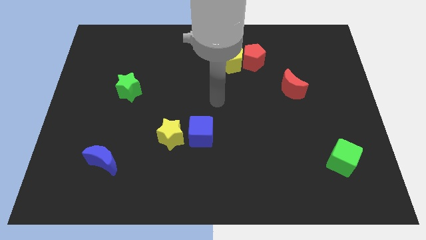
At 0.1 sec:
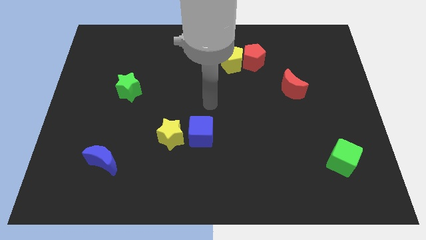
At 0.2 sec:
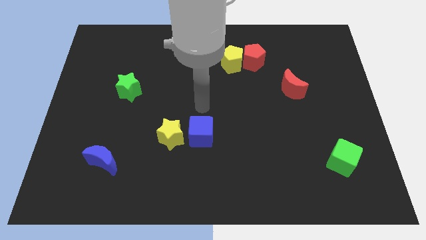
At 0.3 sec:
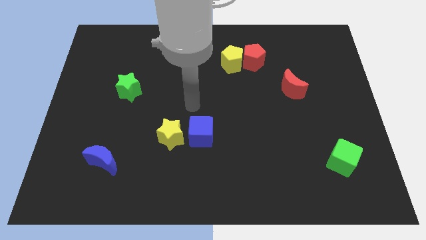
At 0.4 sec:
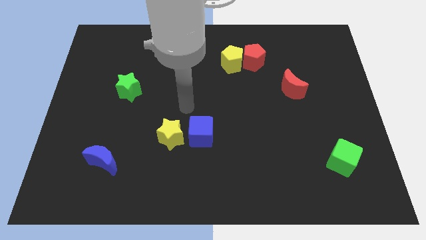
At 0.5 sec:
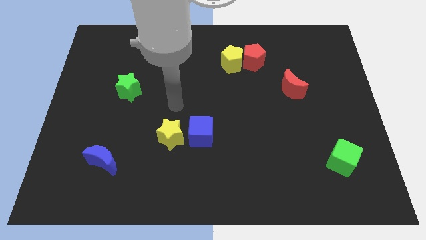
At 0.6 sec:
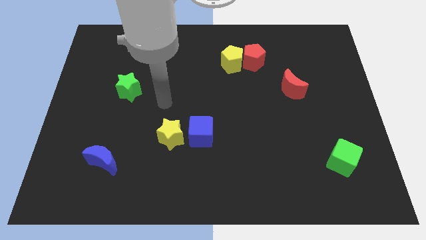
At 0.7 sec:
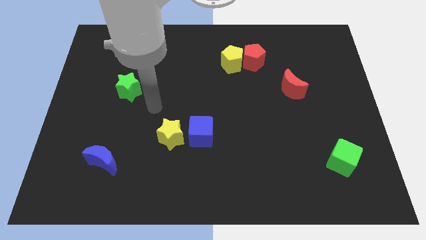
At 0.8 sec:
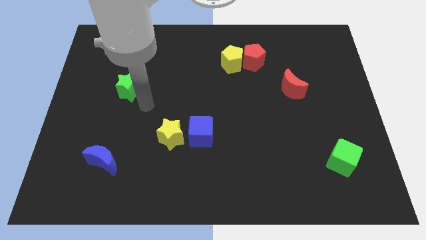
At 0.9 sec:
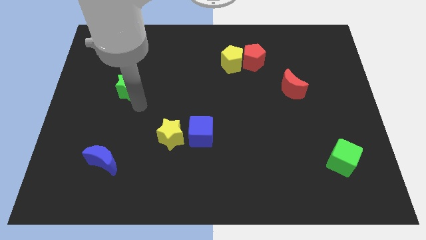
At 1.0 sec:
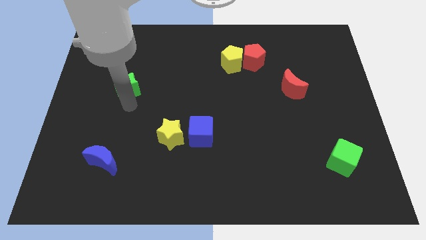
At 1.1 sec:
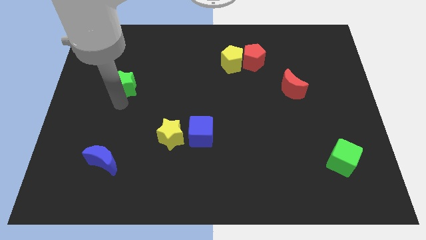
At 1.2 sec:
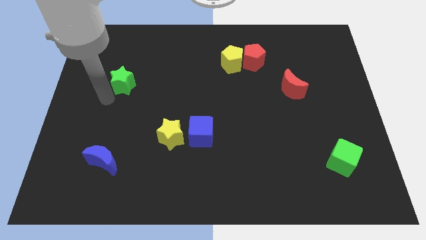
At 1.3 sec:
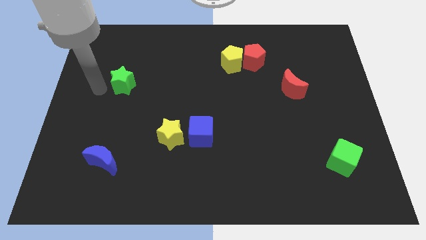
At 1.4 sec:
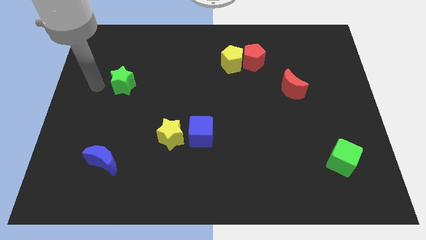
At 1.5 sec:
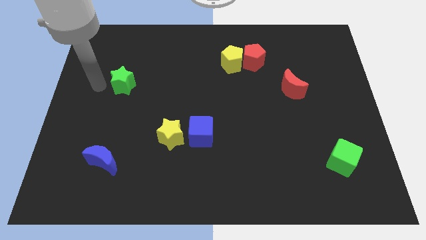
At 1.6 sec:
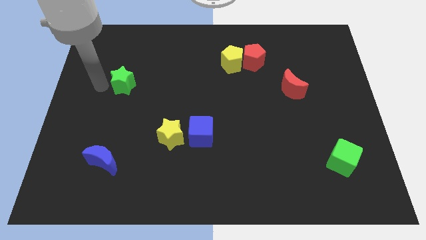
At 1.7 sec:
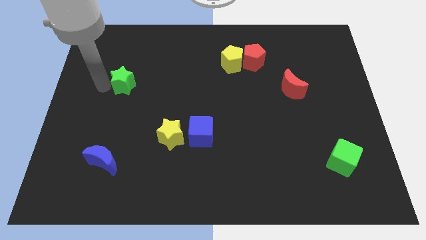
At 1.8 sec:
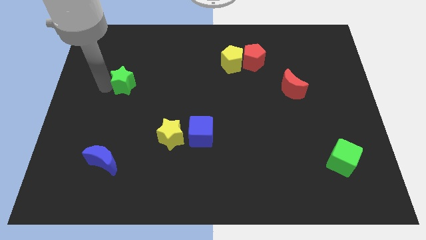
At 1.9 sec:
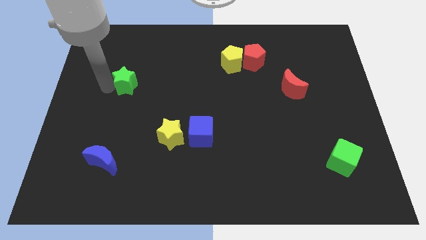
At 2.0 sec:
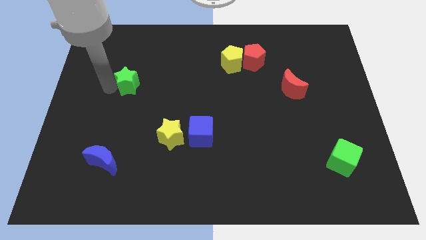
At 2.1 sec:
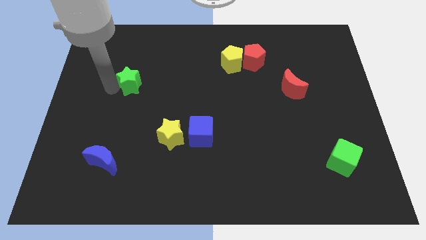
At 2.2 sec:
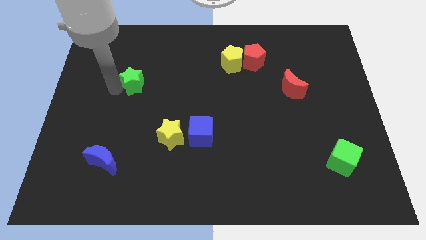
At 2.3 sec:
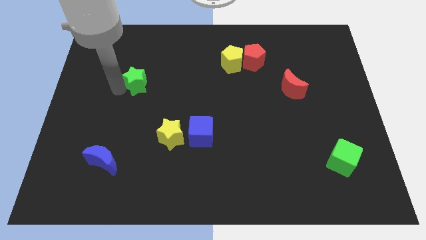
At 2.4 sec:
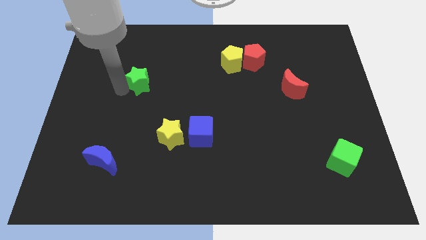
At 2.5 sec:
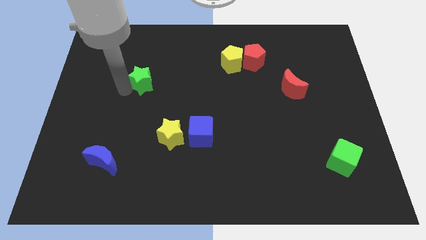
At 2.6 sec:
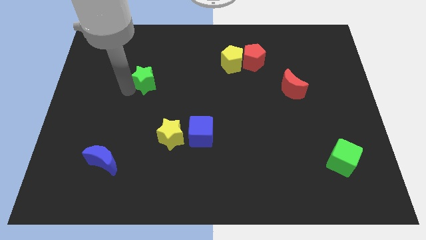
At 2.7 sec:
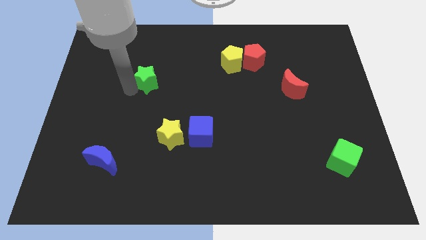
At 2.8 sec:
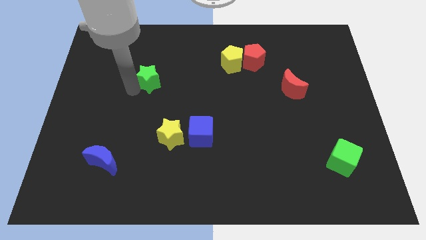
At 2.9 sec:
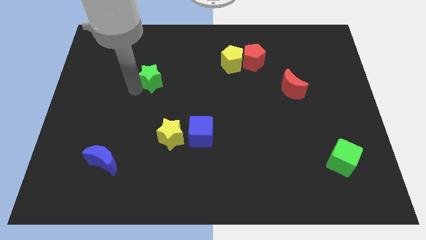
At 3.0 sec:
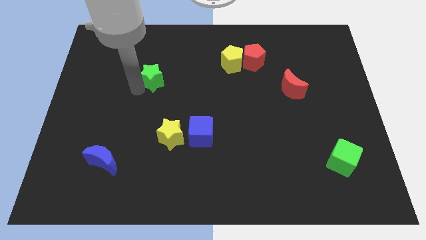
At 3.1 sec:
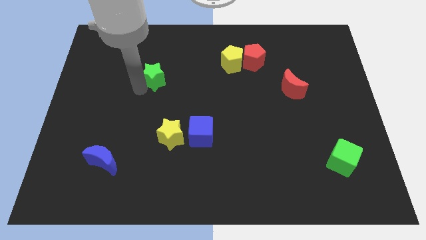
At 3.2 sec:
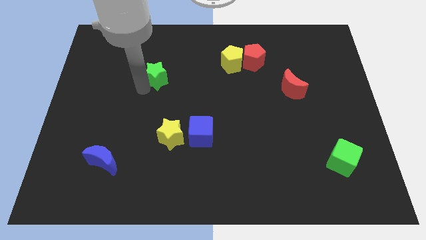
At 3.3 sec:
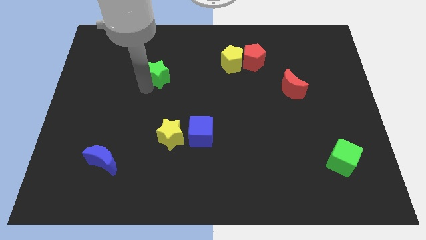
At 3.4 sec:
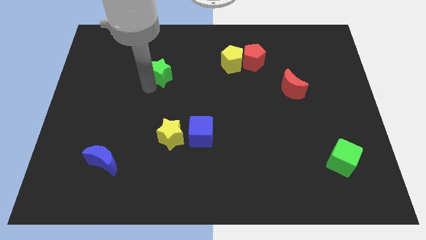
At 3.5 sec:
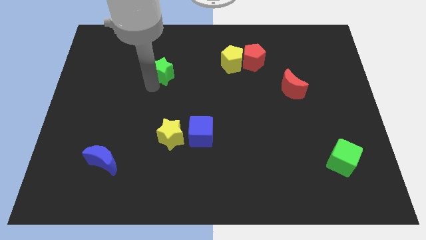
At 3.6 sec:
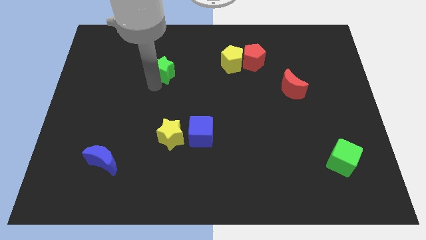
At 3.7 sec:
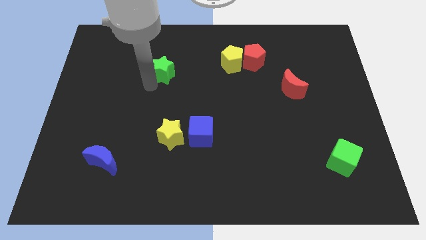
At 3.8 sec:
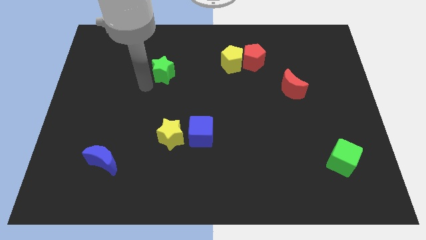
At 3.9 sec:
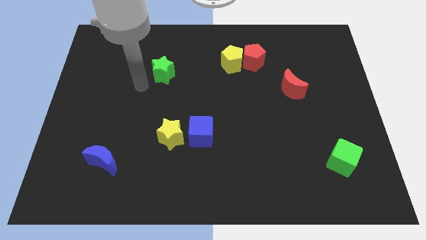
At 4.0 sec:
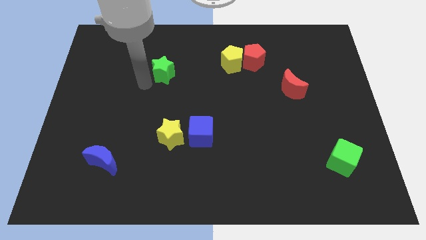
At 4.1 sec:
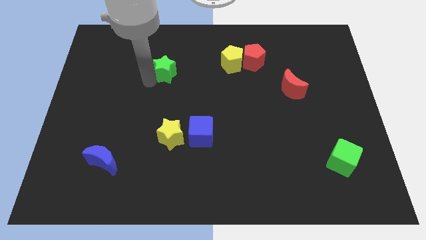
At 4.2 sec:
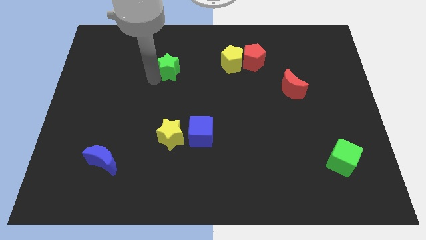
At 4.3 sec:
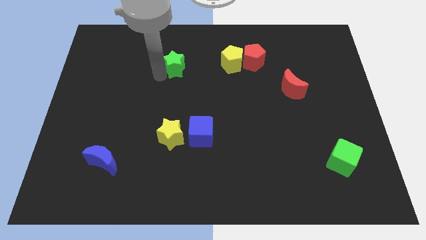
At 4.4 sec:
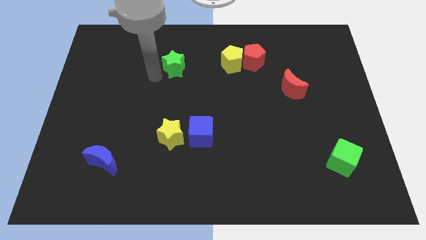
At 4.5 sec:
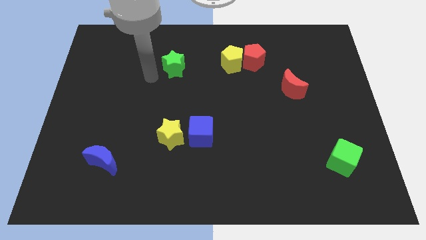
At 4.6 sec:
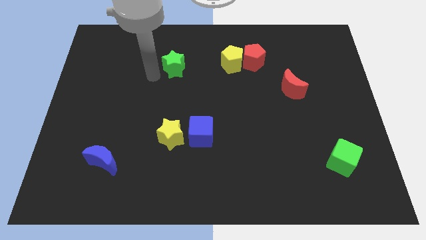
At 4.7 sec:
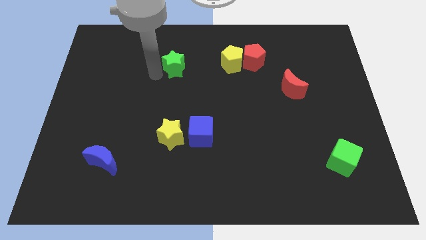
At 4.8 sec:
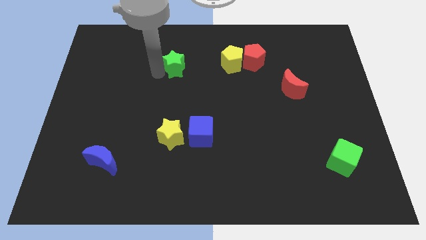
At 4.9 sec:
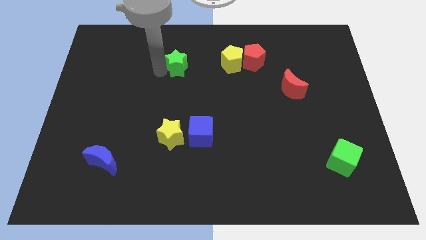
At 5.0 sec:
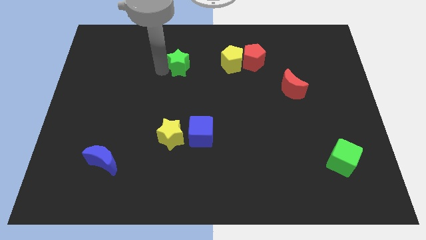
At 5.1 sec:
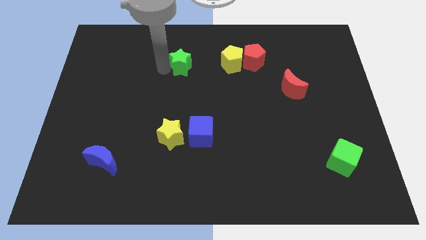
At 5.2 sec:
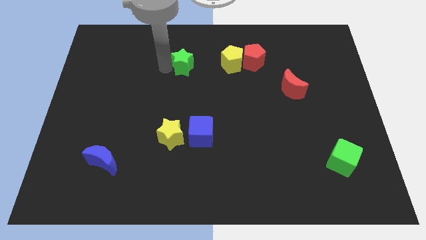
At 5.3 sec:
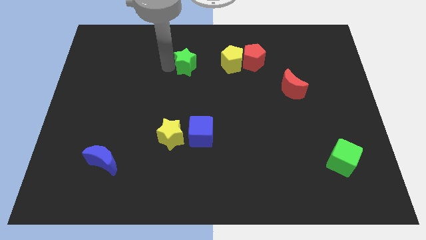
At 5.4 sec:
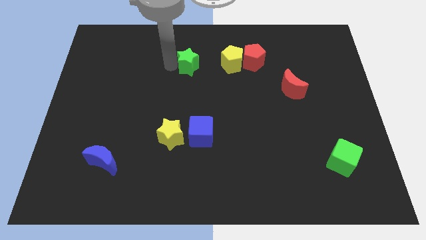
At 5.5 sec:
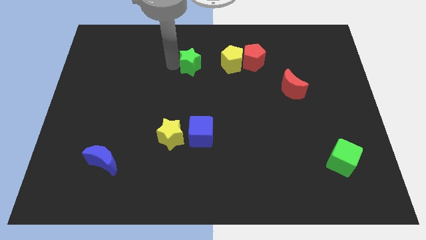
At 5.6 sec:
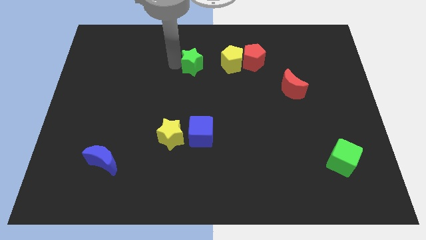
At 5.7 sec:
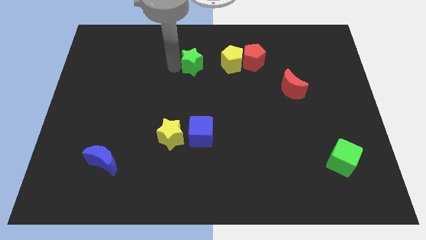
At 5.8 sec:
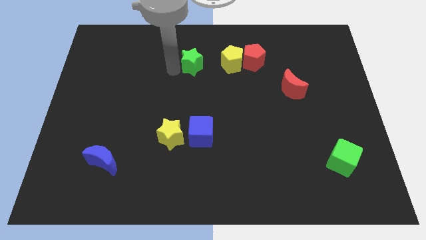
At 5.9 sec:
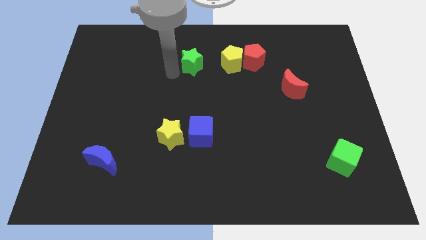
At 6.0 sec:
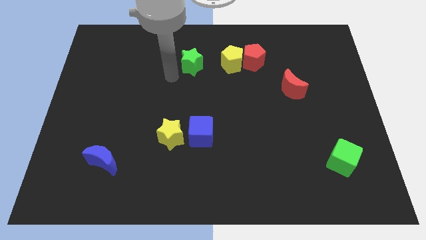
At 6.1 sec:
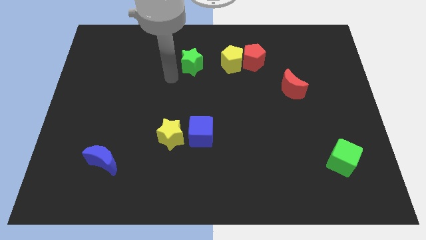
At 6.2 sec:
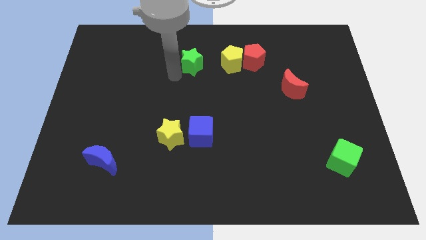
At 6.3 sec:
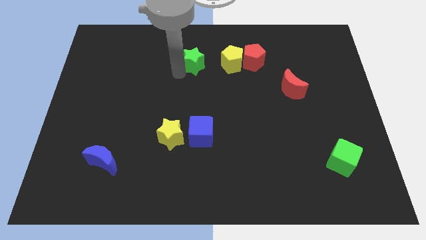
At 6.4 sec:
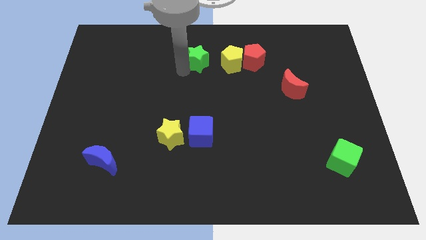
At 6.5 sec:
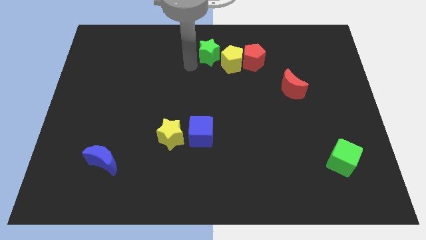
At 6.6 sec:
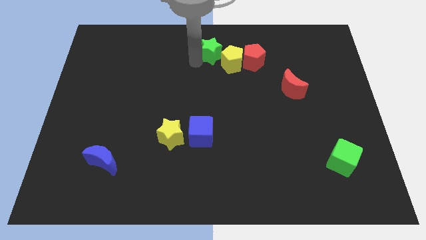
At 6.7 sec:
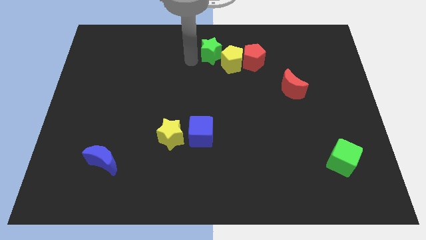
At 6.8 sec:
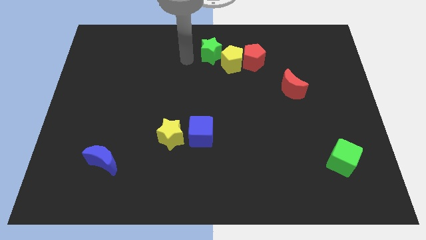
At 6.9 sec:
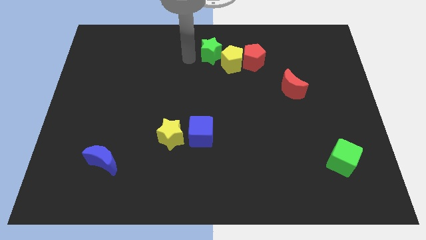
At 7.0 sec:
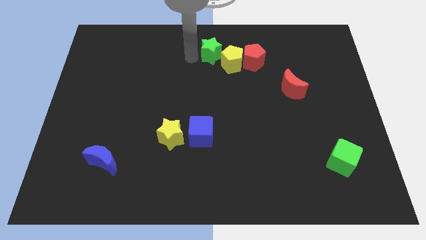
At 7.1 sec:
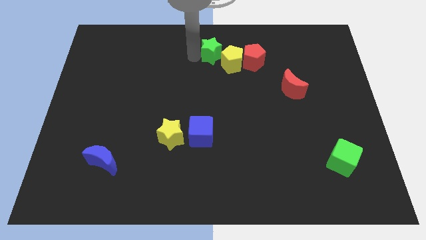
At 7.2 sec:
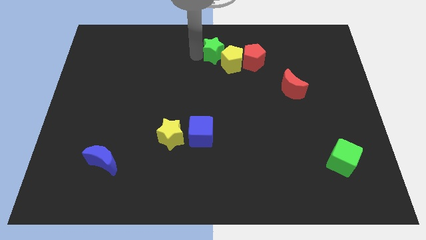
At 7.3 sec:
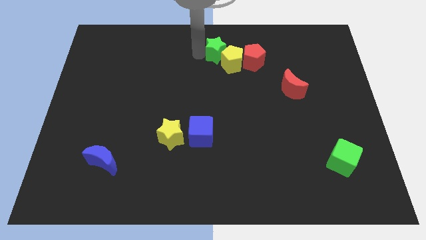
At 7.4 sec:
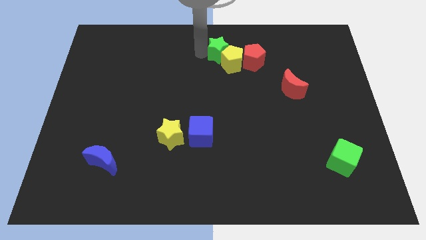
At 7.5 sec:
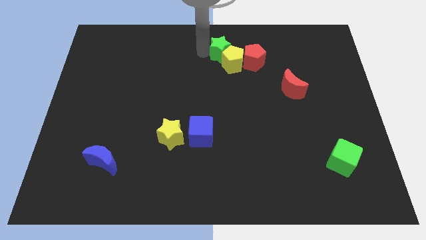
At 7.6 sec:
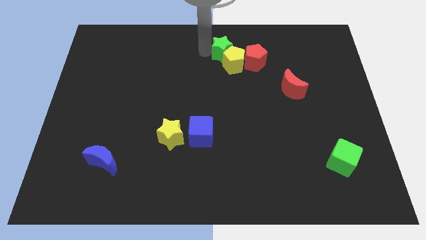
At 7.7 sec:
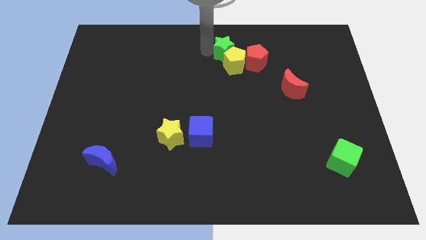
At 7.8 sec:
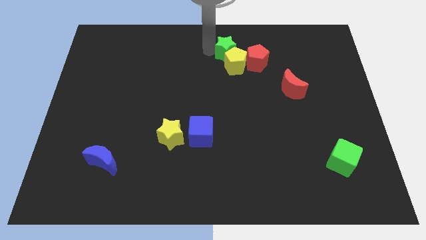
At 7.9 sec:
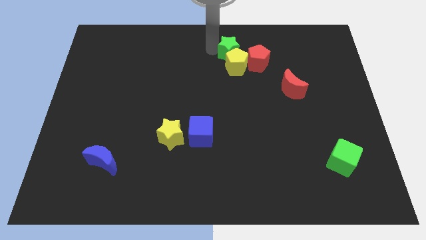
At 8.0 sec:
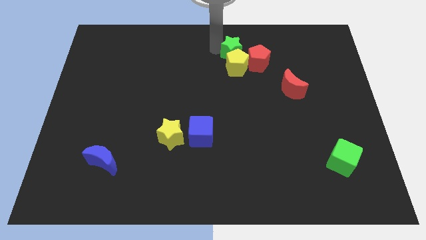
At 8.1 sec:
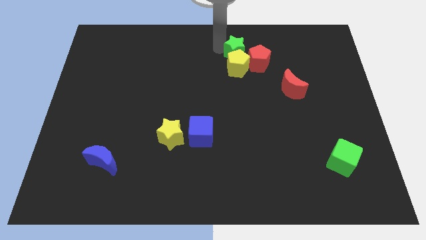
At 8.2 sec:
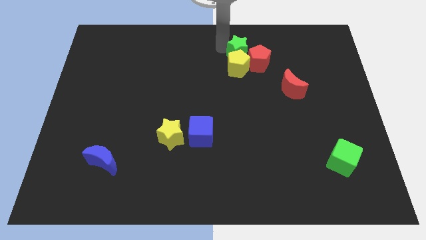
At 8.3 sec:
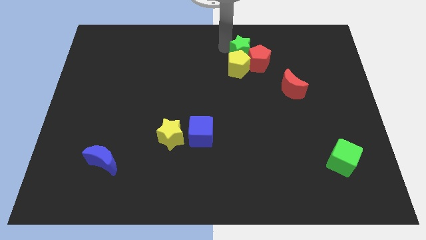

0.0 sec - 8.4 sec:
slide the green star close to the red pentagon
